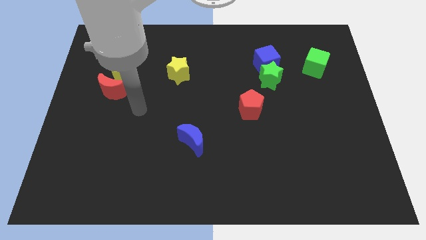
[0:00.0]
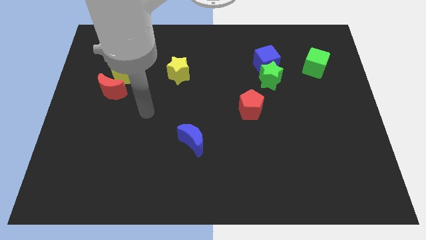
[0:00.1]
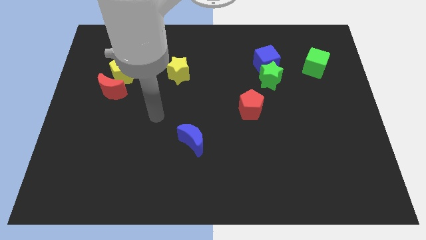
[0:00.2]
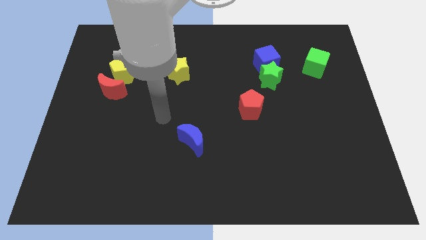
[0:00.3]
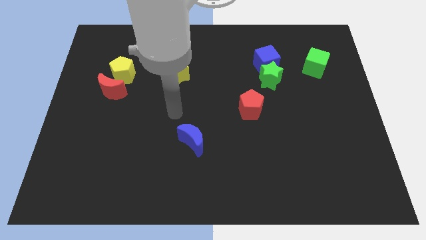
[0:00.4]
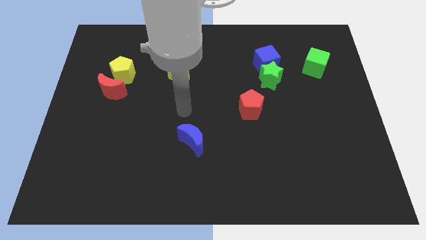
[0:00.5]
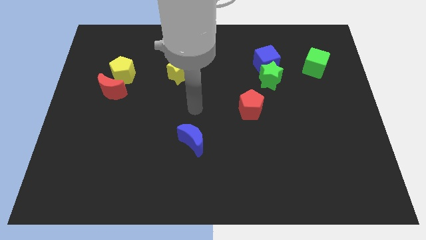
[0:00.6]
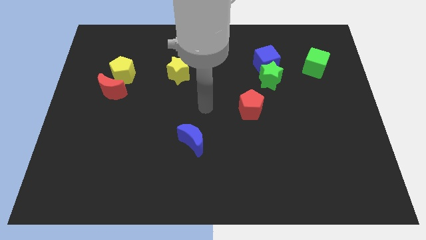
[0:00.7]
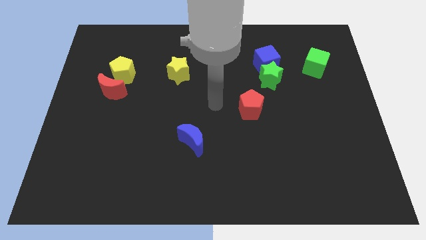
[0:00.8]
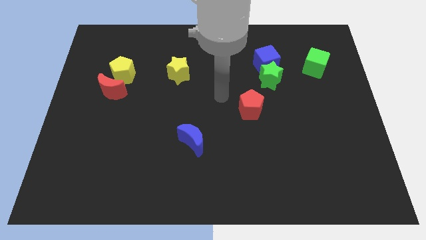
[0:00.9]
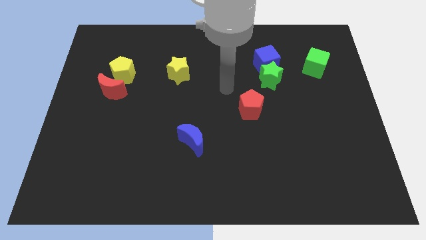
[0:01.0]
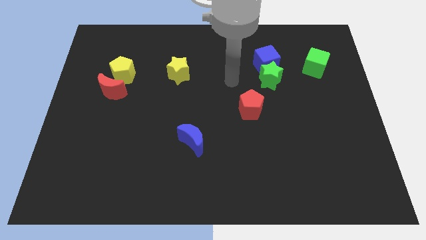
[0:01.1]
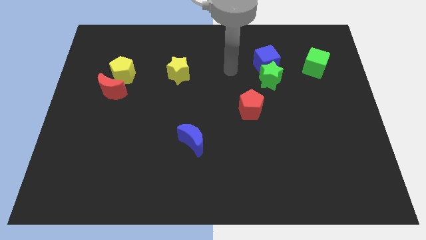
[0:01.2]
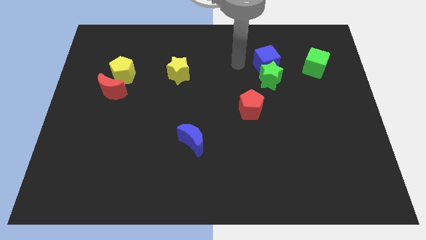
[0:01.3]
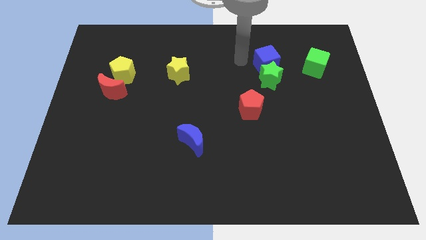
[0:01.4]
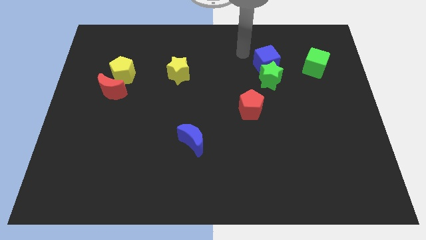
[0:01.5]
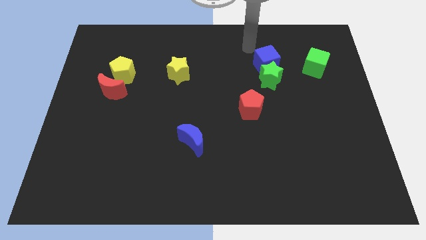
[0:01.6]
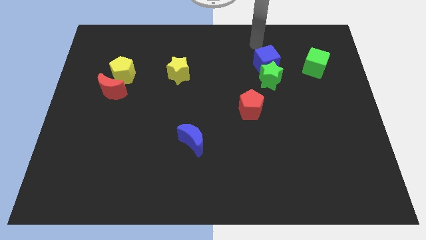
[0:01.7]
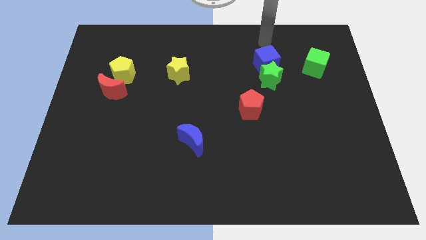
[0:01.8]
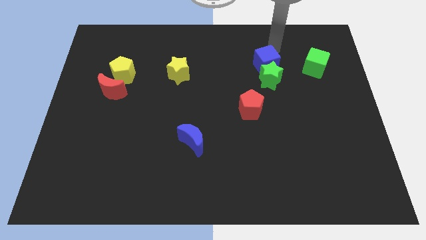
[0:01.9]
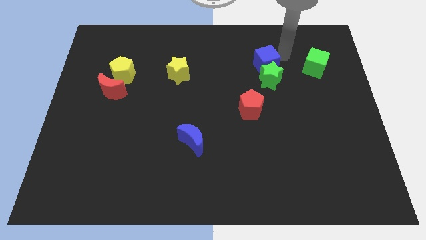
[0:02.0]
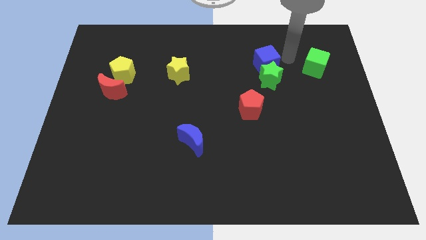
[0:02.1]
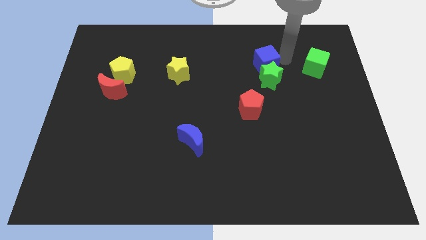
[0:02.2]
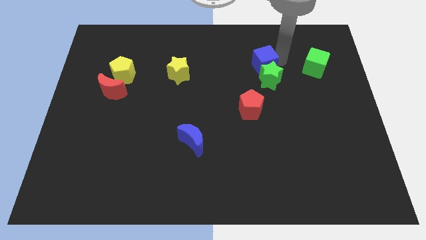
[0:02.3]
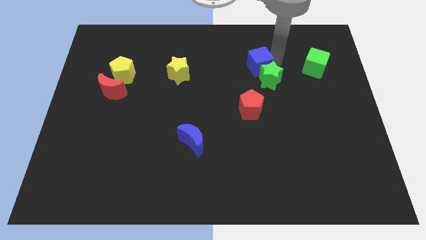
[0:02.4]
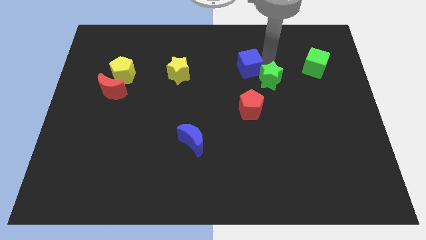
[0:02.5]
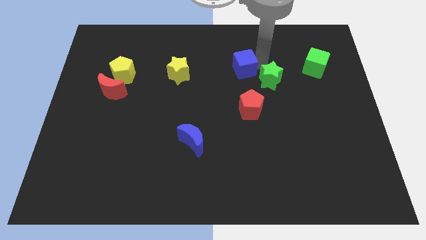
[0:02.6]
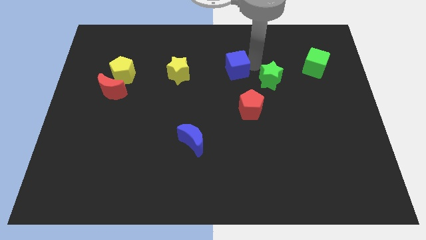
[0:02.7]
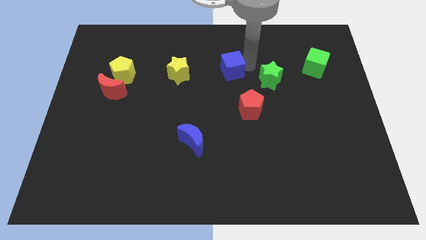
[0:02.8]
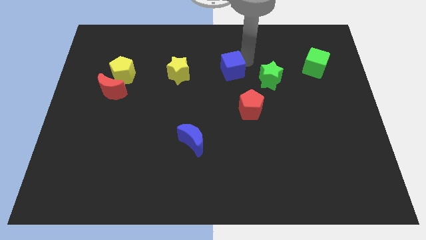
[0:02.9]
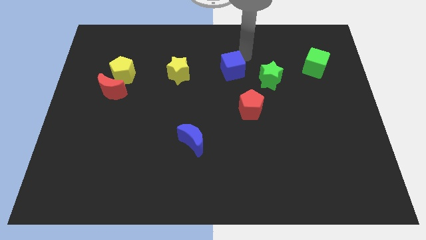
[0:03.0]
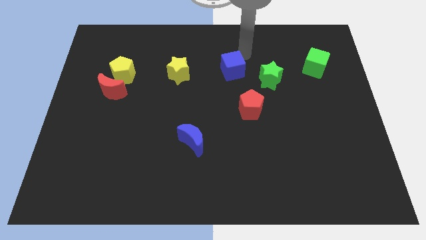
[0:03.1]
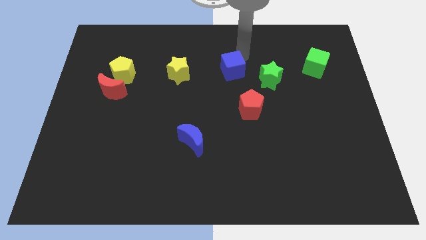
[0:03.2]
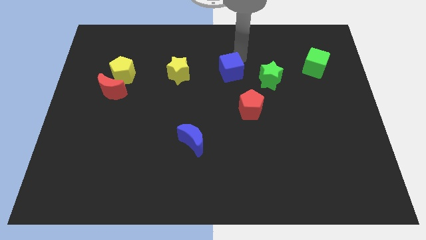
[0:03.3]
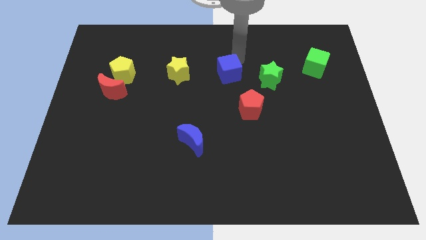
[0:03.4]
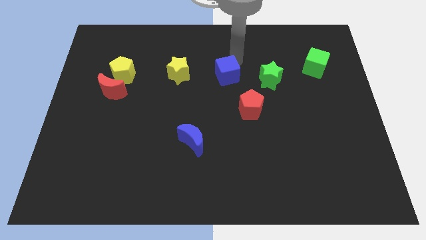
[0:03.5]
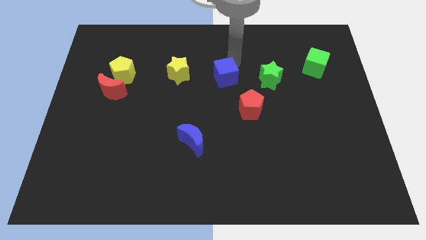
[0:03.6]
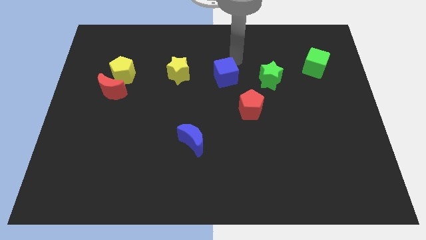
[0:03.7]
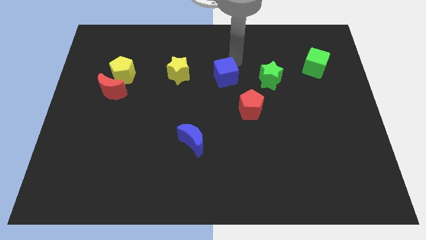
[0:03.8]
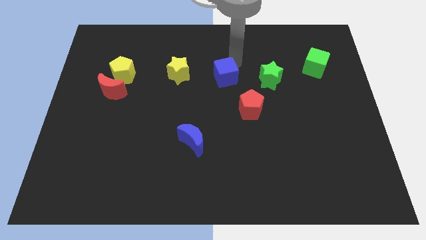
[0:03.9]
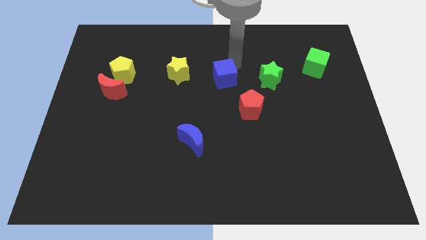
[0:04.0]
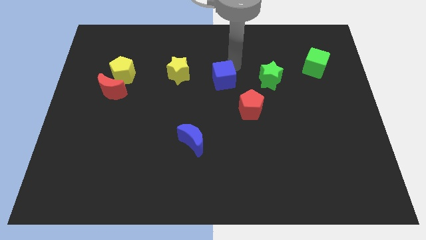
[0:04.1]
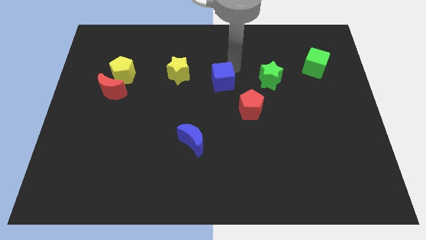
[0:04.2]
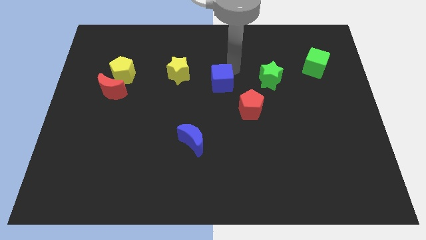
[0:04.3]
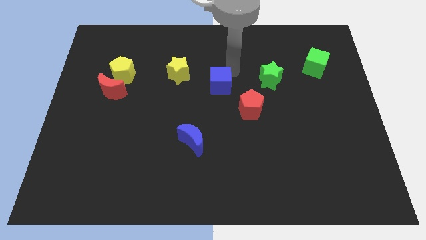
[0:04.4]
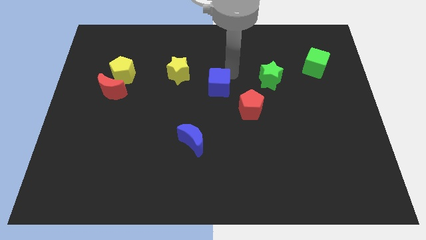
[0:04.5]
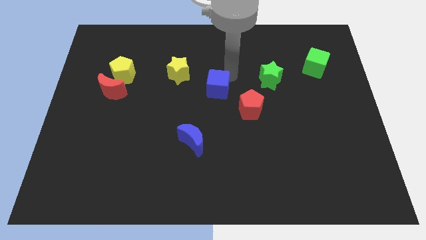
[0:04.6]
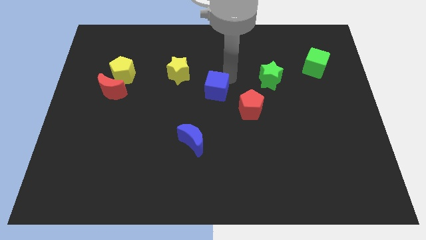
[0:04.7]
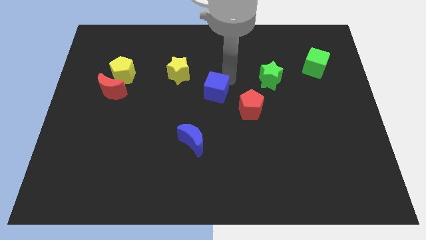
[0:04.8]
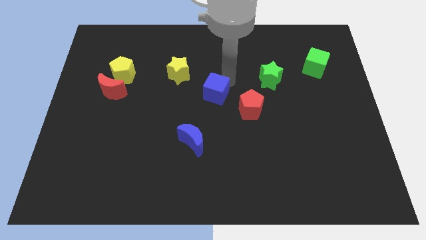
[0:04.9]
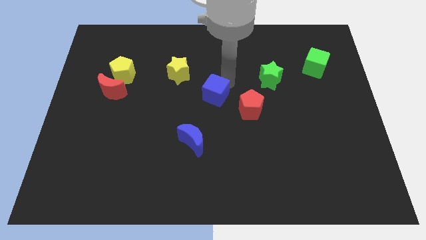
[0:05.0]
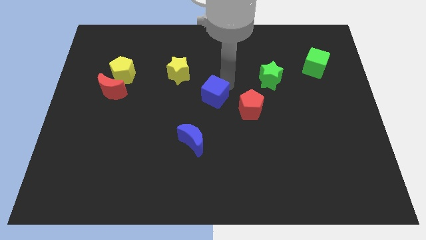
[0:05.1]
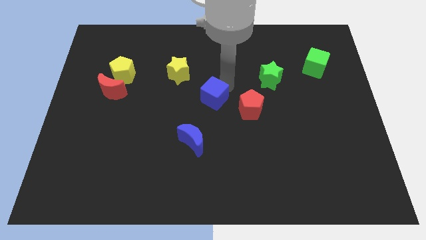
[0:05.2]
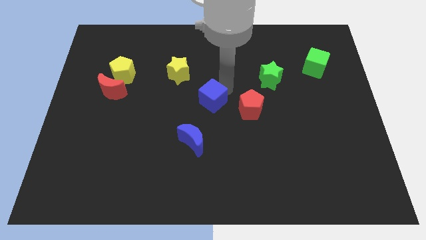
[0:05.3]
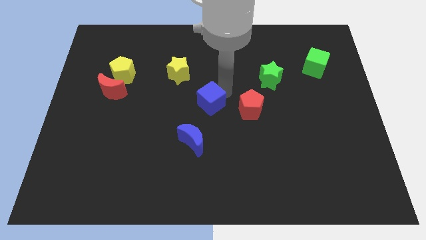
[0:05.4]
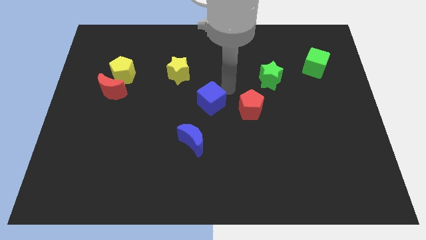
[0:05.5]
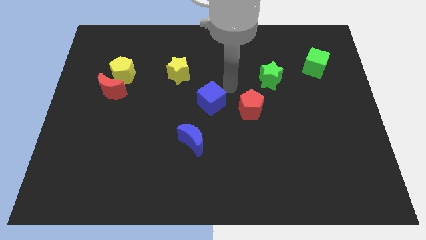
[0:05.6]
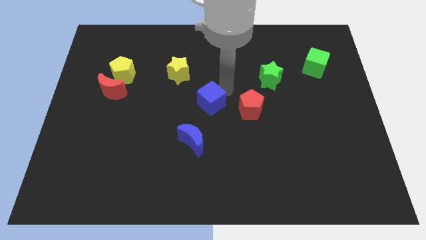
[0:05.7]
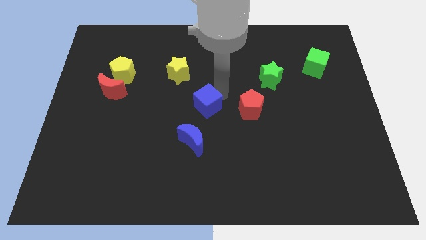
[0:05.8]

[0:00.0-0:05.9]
move the blue cube down and to the left

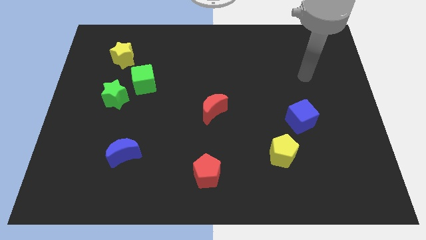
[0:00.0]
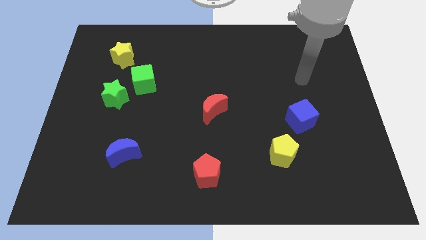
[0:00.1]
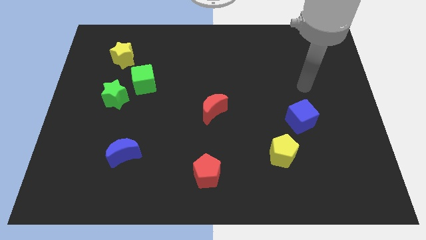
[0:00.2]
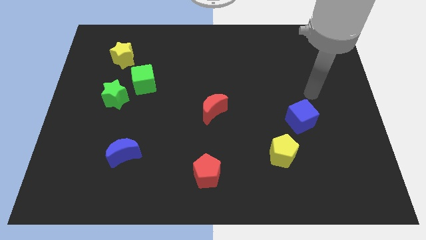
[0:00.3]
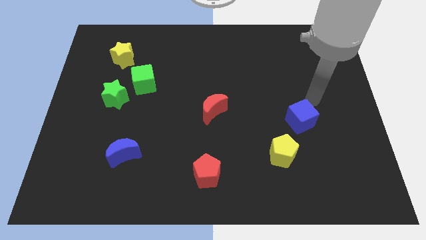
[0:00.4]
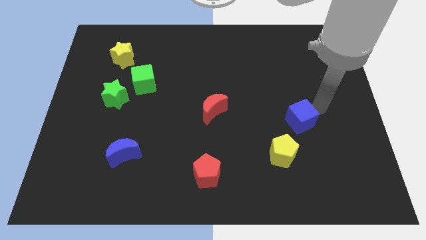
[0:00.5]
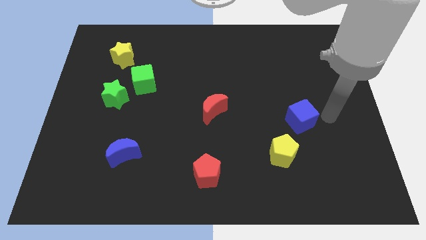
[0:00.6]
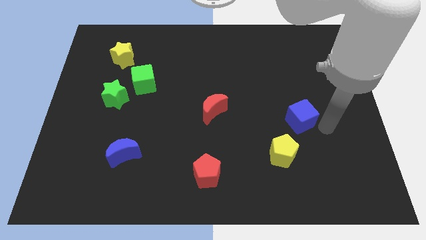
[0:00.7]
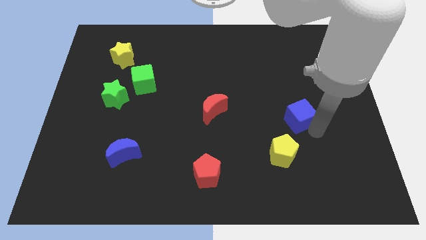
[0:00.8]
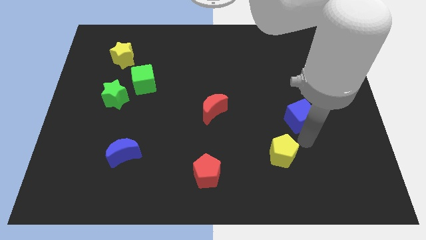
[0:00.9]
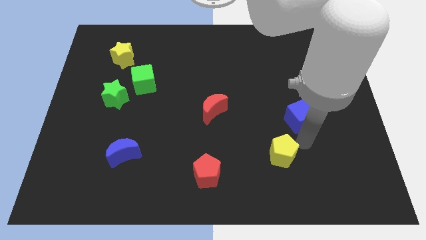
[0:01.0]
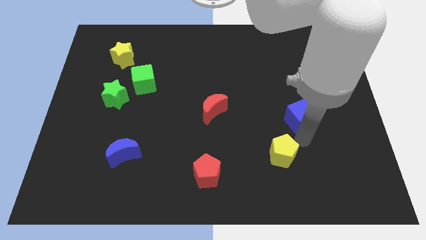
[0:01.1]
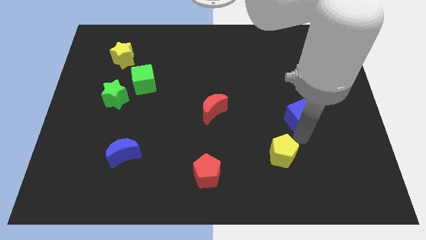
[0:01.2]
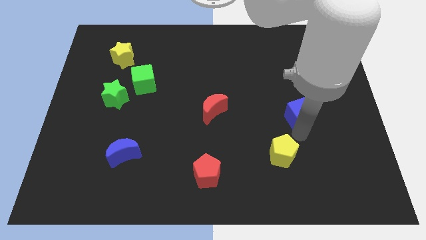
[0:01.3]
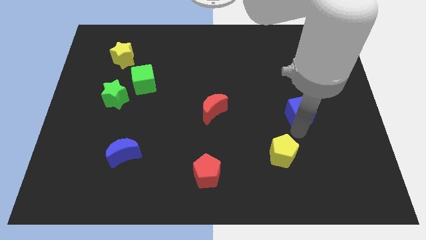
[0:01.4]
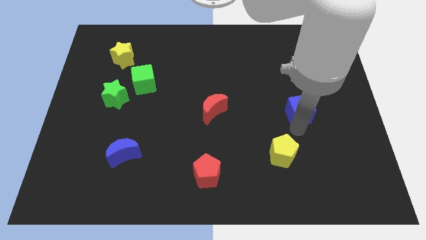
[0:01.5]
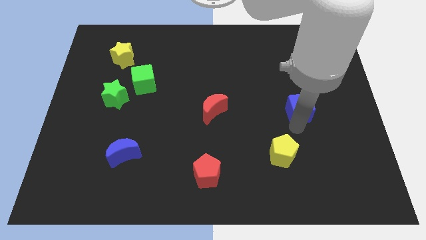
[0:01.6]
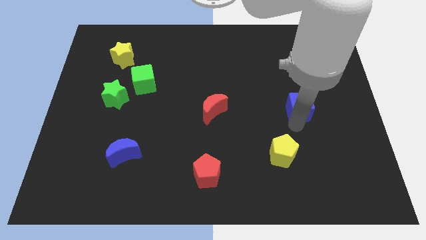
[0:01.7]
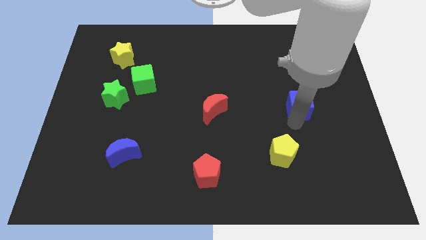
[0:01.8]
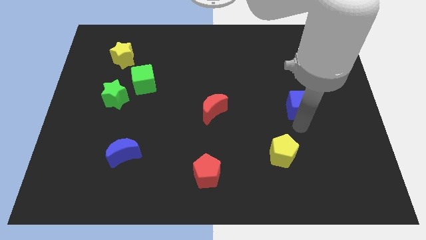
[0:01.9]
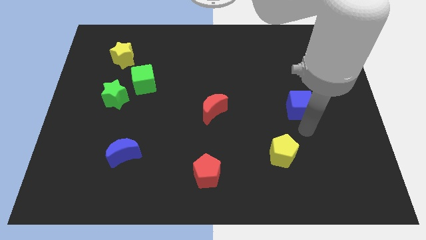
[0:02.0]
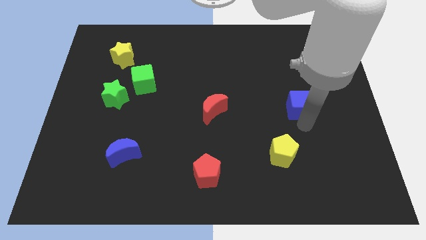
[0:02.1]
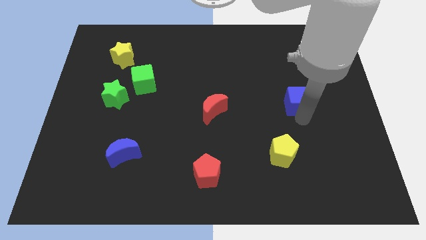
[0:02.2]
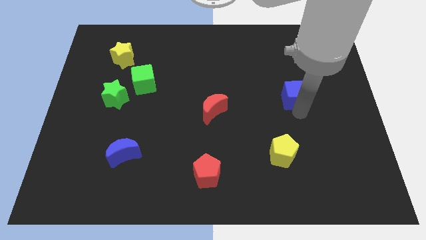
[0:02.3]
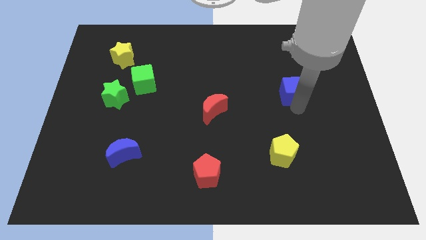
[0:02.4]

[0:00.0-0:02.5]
push the blue cube a little bit upwards
